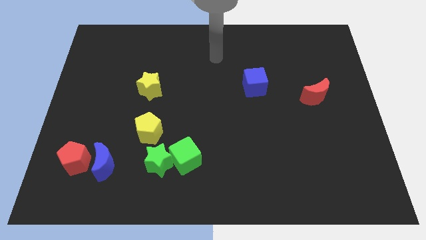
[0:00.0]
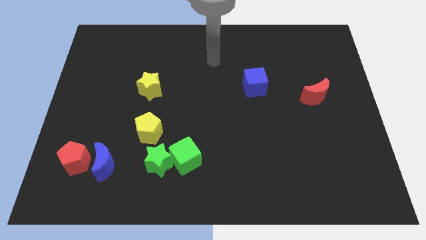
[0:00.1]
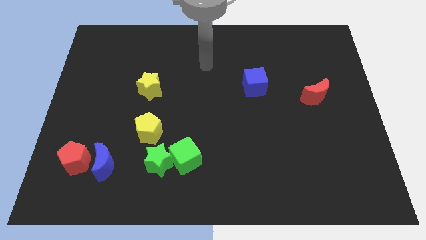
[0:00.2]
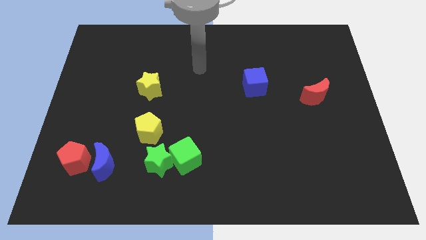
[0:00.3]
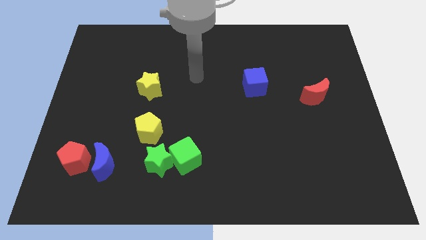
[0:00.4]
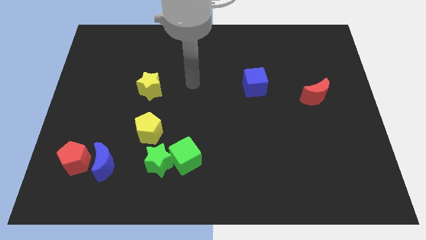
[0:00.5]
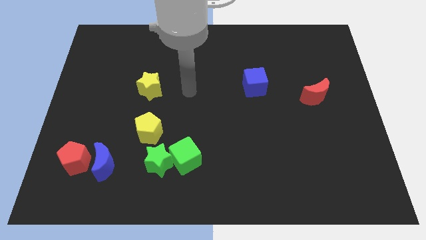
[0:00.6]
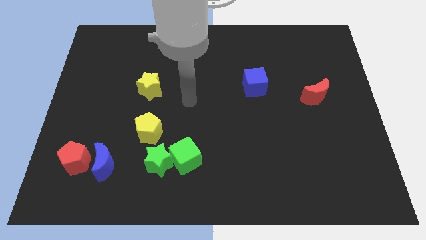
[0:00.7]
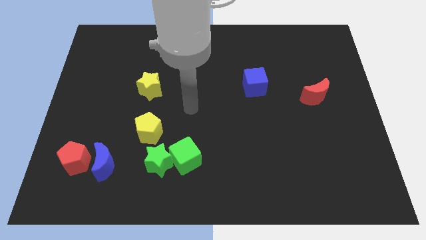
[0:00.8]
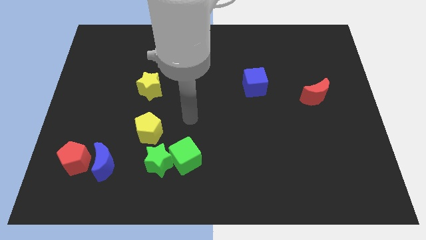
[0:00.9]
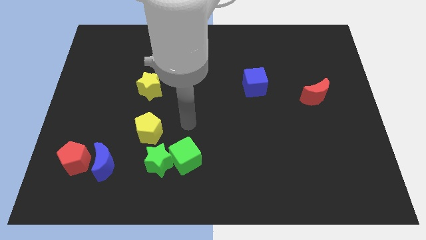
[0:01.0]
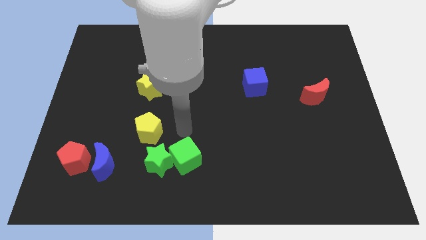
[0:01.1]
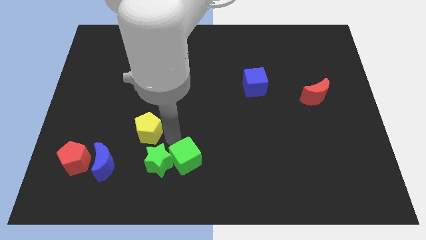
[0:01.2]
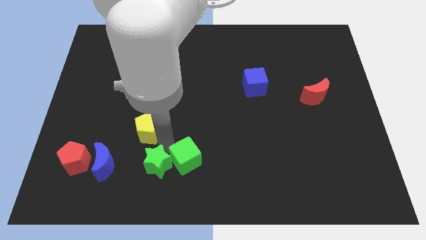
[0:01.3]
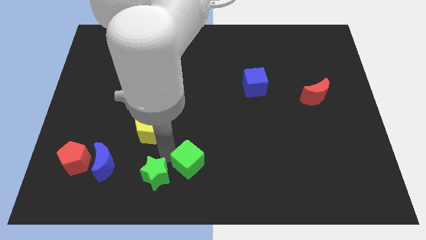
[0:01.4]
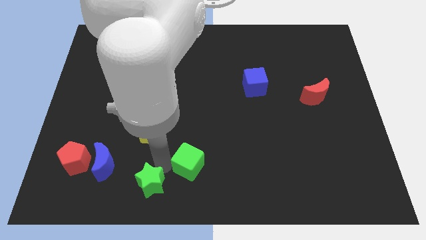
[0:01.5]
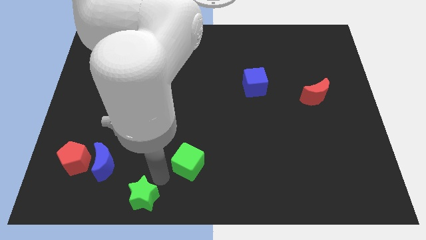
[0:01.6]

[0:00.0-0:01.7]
move the green cube away from the green star

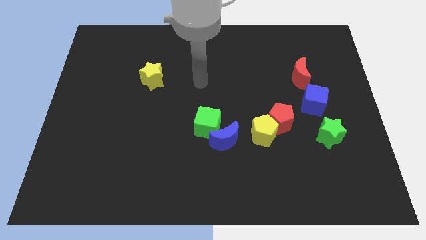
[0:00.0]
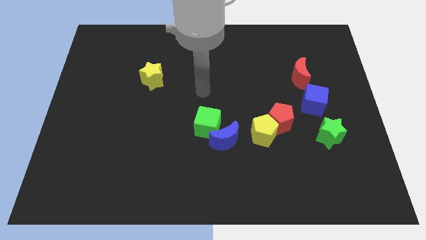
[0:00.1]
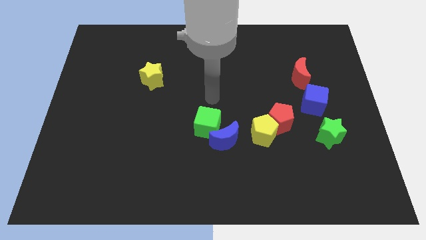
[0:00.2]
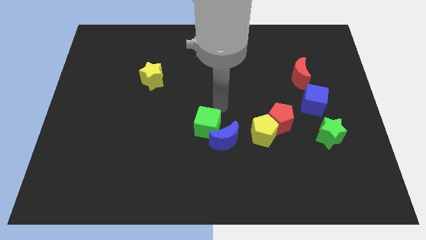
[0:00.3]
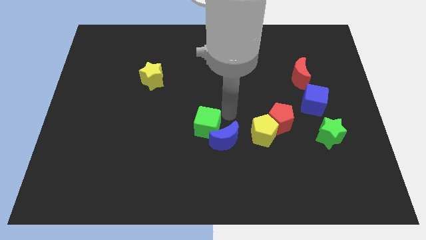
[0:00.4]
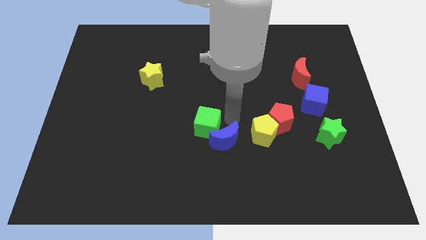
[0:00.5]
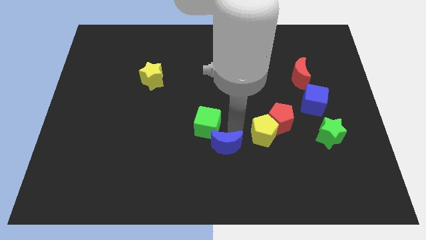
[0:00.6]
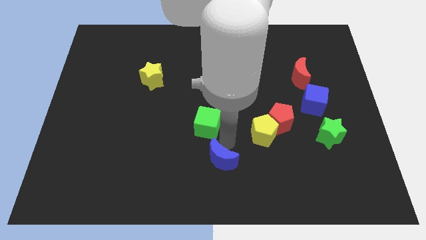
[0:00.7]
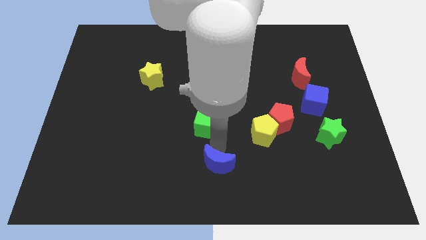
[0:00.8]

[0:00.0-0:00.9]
separate the green cube from the blue moon

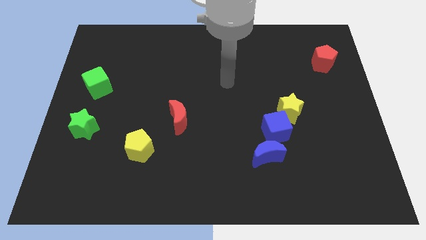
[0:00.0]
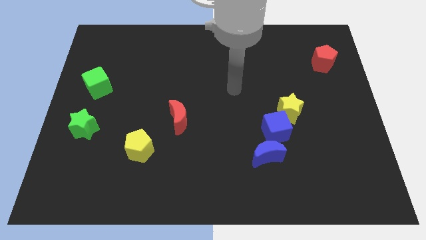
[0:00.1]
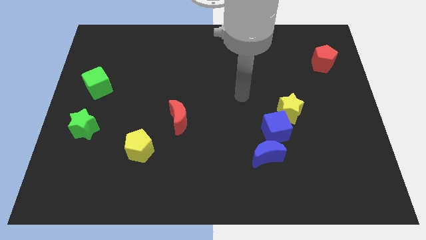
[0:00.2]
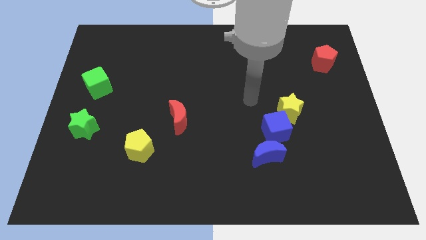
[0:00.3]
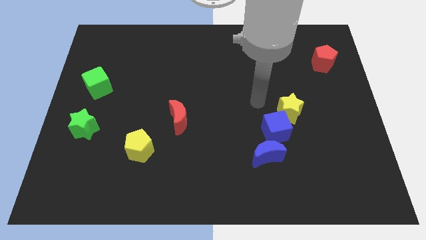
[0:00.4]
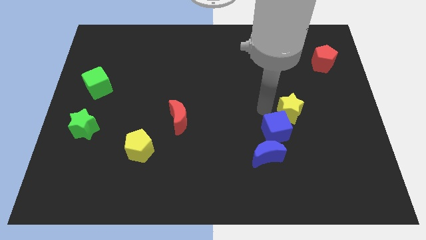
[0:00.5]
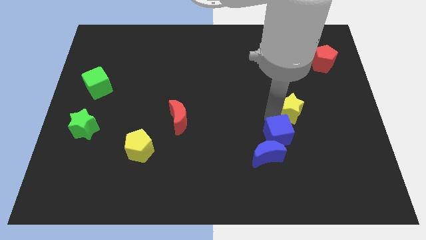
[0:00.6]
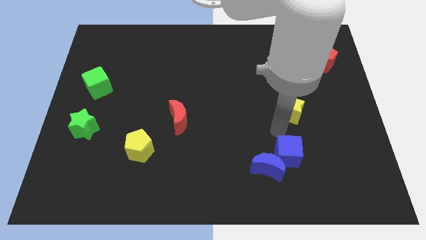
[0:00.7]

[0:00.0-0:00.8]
move the yellow star away from the blue cube

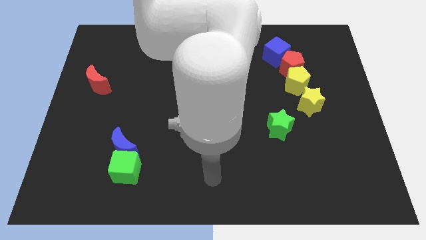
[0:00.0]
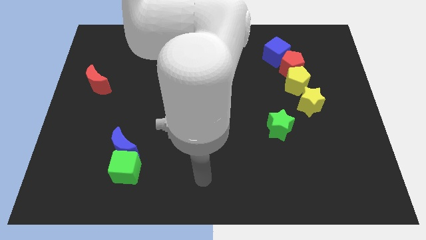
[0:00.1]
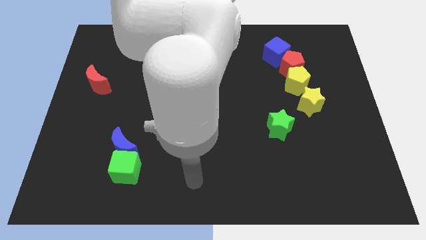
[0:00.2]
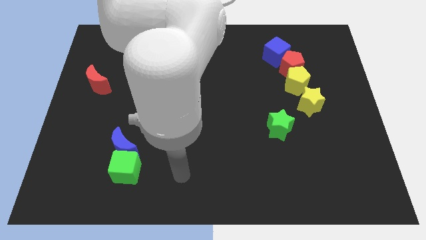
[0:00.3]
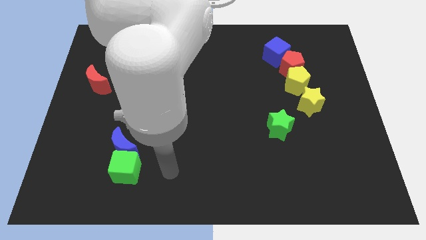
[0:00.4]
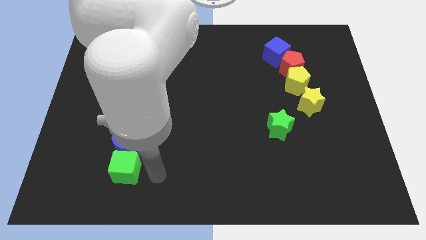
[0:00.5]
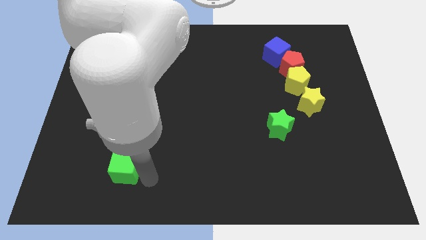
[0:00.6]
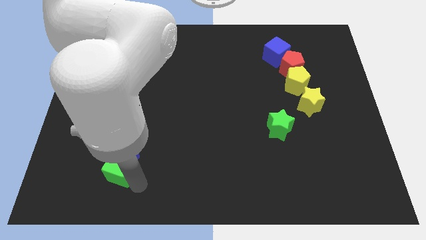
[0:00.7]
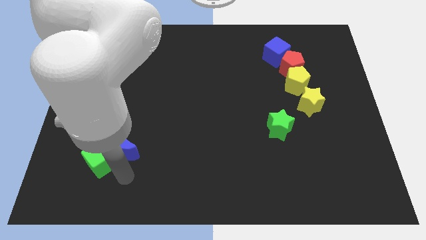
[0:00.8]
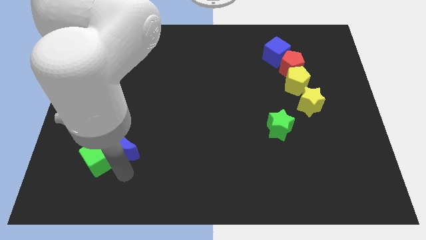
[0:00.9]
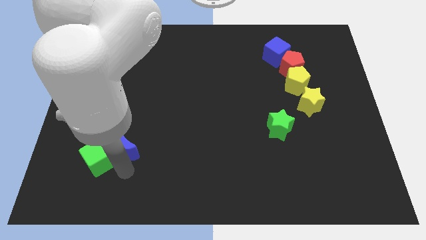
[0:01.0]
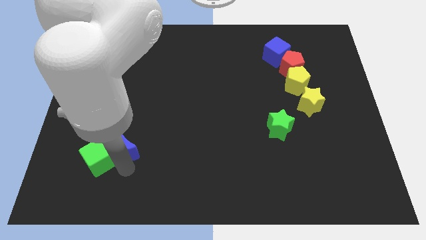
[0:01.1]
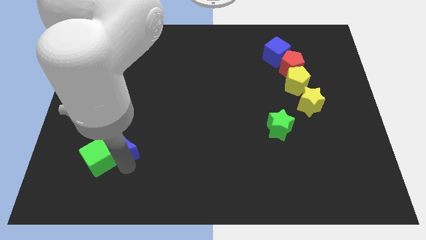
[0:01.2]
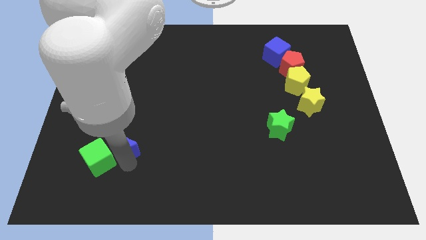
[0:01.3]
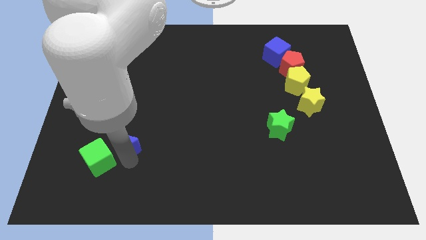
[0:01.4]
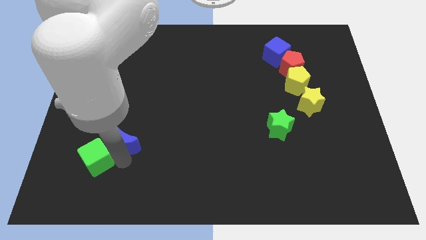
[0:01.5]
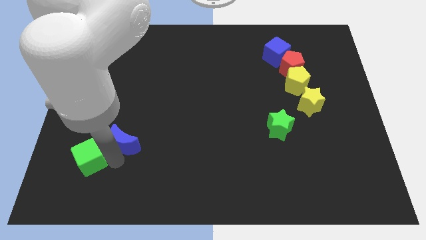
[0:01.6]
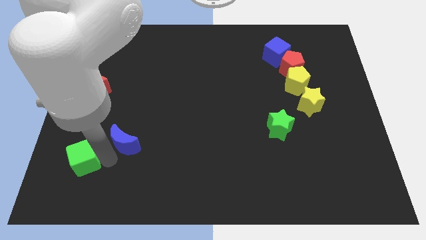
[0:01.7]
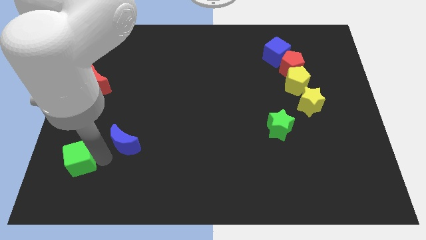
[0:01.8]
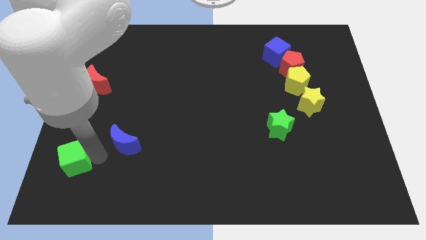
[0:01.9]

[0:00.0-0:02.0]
pull the blue moon apart from the green cube

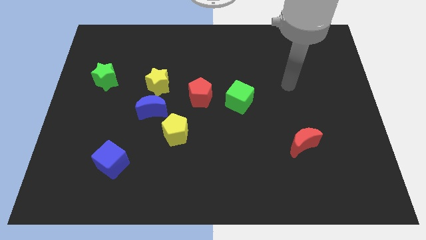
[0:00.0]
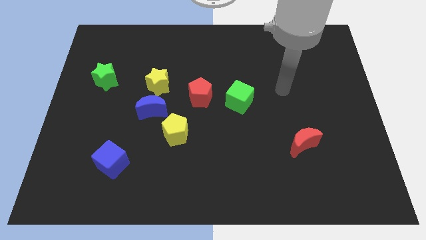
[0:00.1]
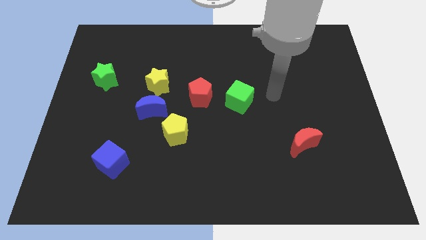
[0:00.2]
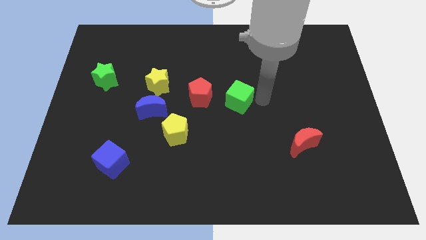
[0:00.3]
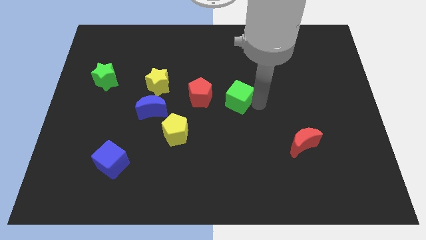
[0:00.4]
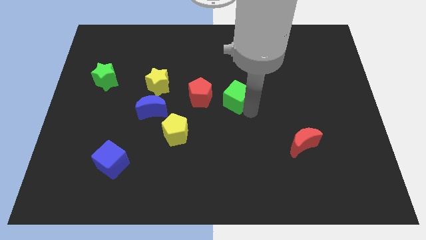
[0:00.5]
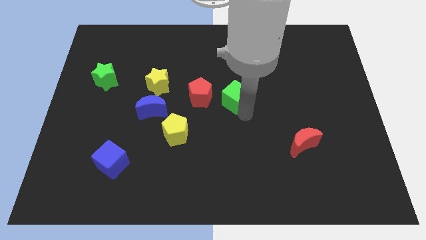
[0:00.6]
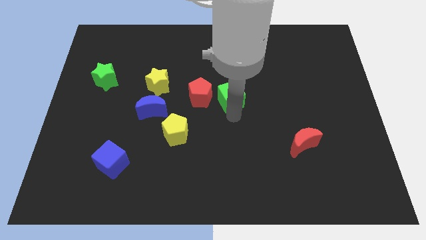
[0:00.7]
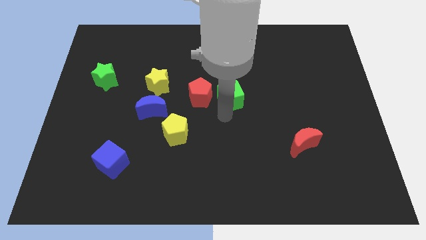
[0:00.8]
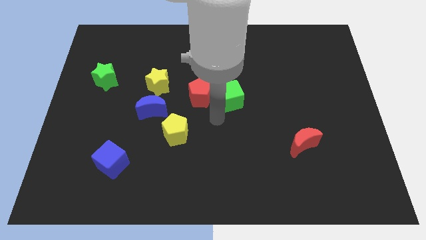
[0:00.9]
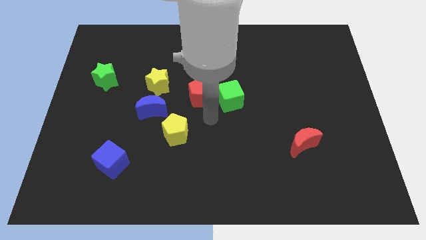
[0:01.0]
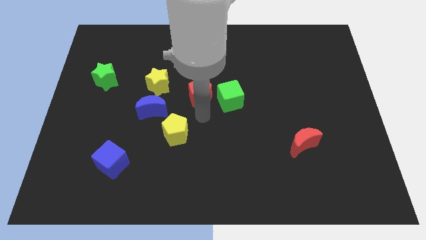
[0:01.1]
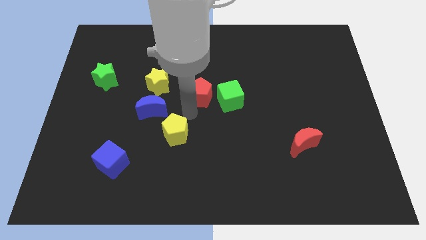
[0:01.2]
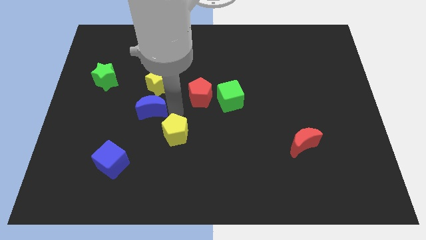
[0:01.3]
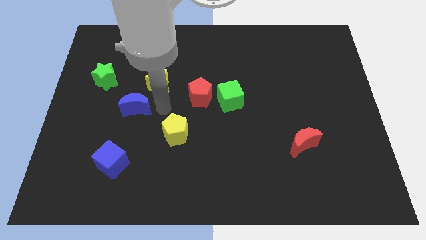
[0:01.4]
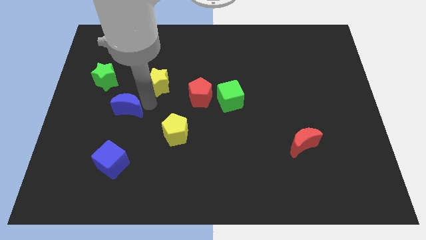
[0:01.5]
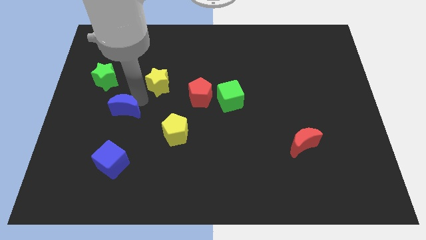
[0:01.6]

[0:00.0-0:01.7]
separate the yellow star from the blue moon

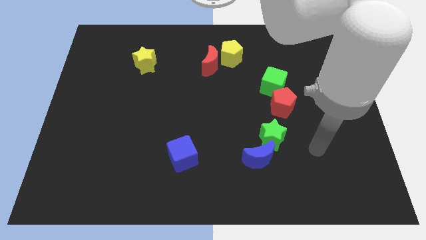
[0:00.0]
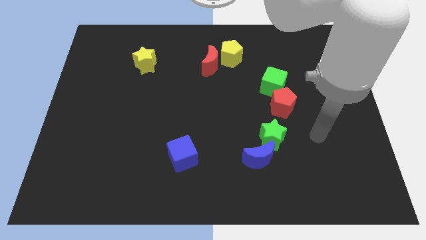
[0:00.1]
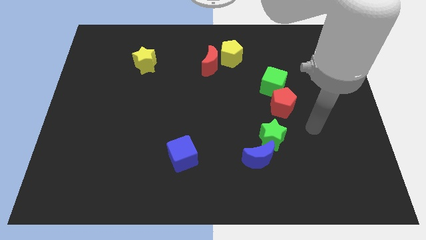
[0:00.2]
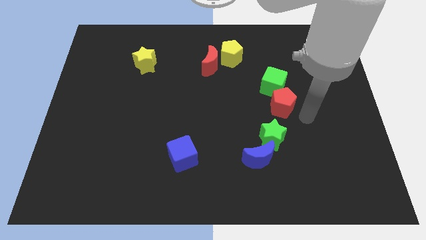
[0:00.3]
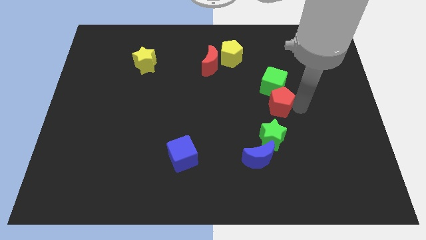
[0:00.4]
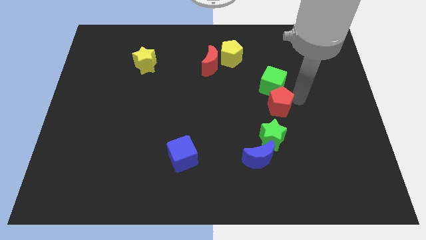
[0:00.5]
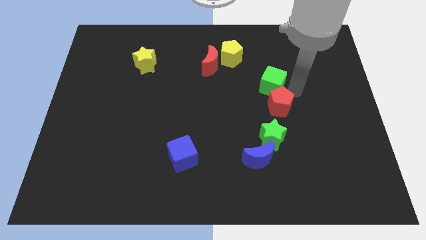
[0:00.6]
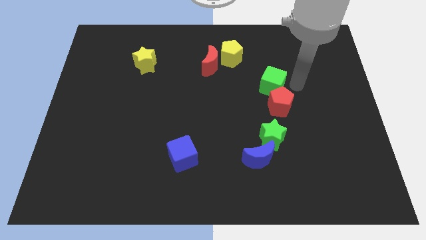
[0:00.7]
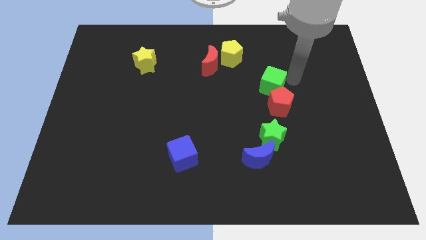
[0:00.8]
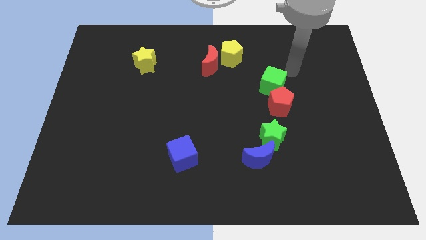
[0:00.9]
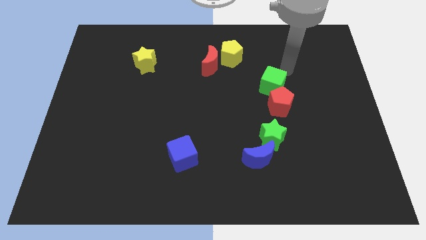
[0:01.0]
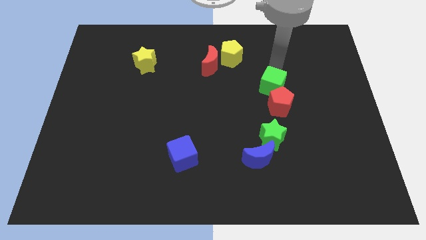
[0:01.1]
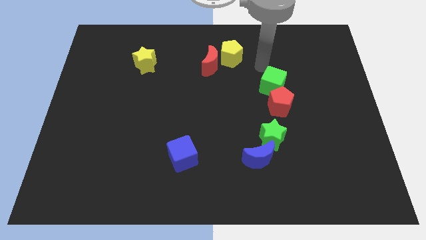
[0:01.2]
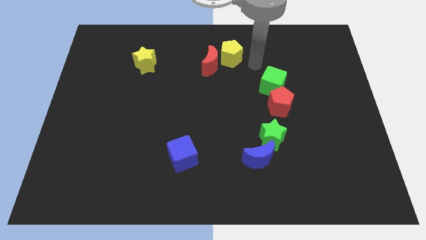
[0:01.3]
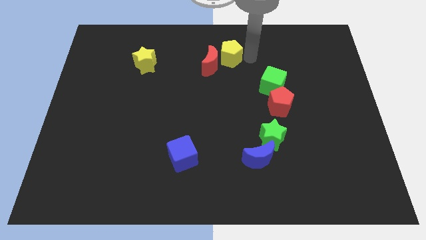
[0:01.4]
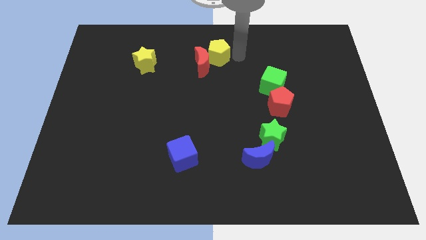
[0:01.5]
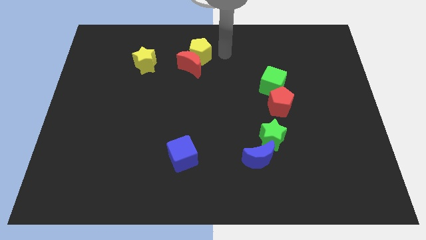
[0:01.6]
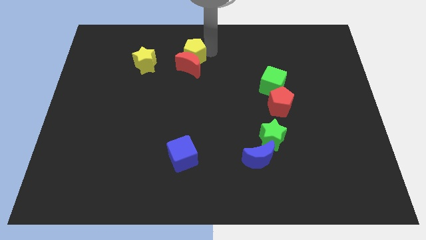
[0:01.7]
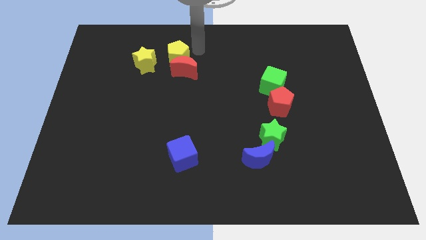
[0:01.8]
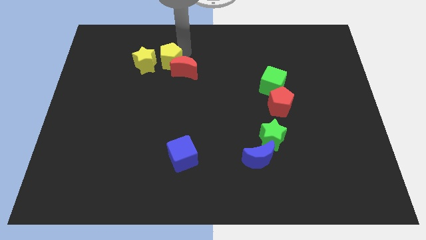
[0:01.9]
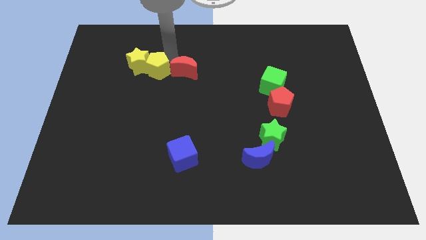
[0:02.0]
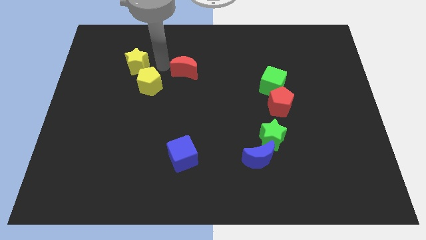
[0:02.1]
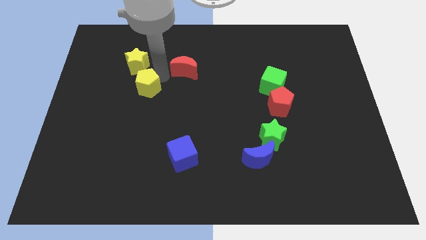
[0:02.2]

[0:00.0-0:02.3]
separate the red moon from the yellow pentagon
